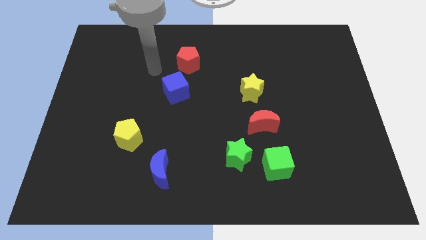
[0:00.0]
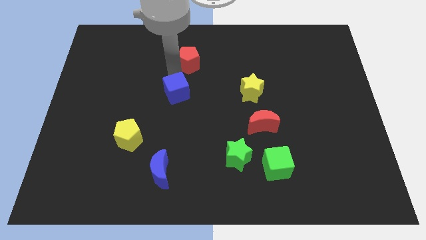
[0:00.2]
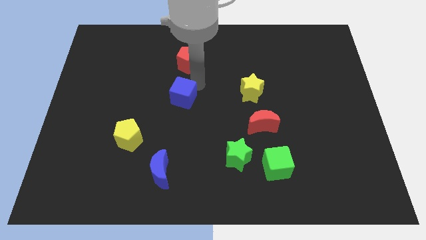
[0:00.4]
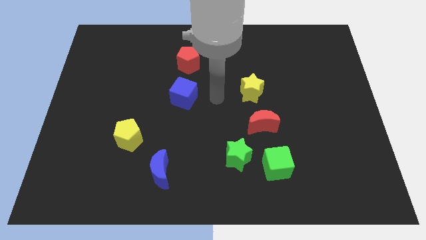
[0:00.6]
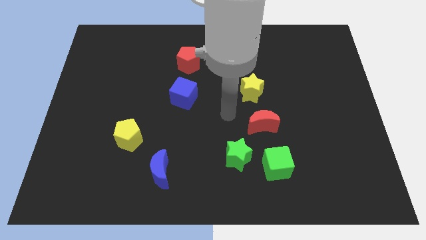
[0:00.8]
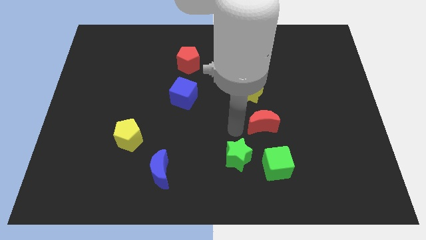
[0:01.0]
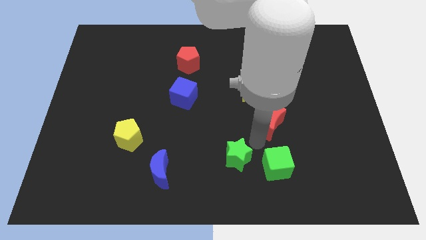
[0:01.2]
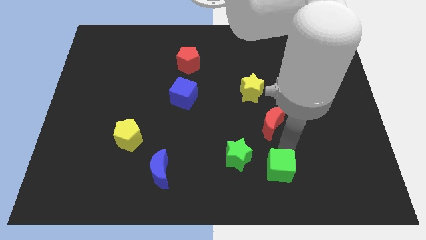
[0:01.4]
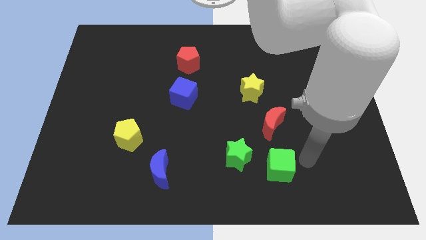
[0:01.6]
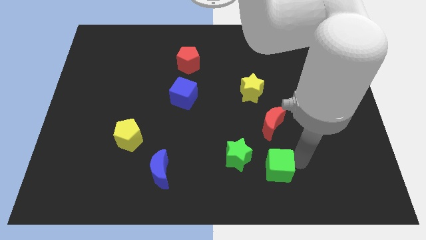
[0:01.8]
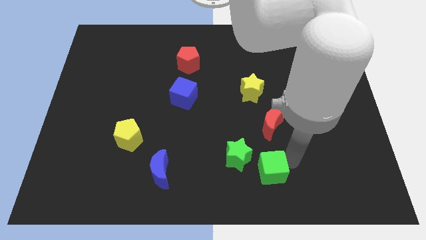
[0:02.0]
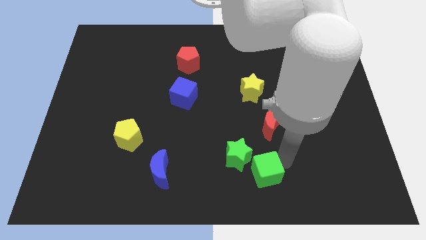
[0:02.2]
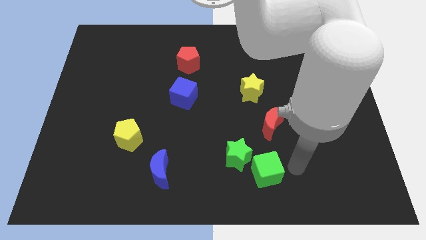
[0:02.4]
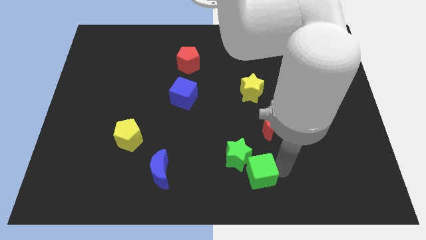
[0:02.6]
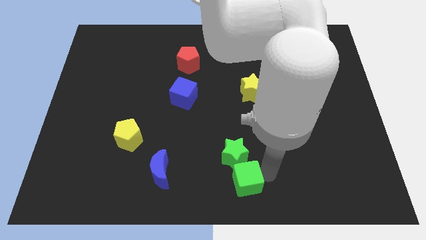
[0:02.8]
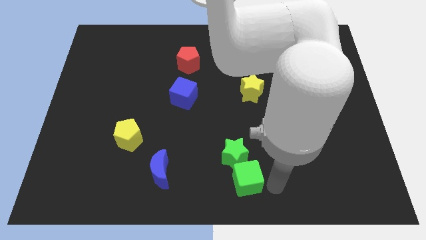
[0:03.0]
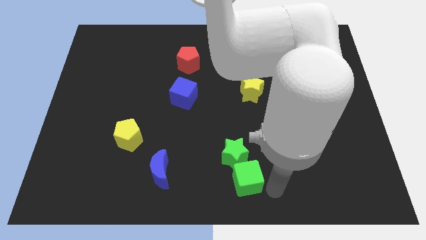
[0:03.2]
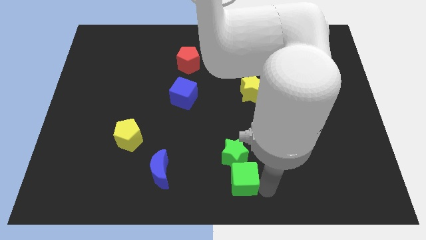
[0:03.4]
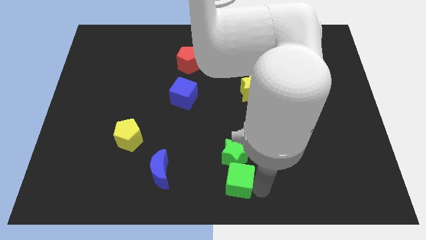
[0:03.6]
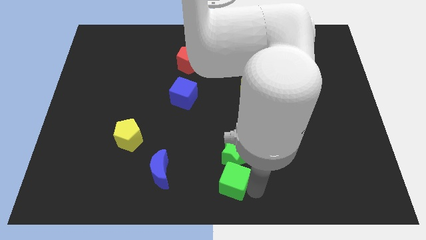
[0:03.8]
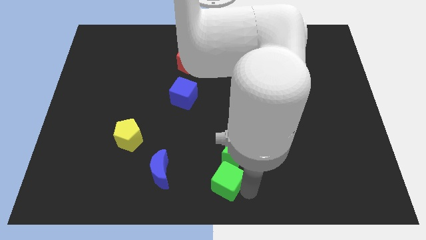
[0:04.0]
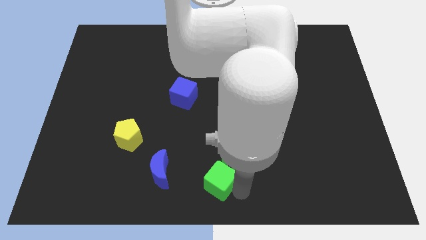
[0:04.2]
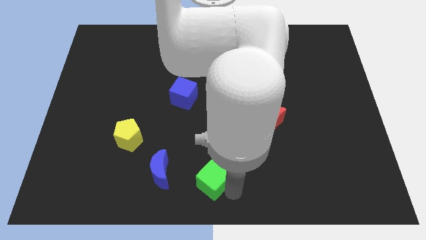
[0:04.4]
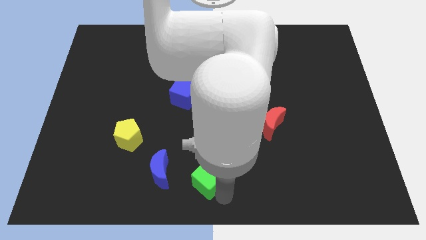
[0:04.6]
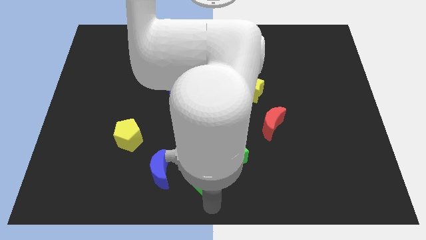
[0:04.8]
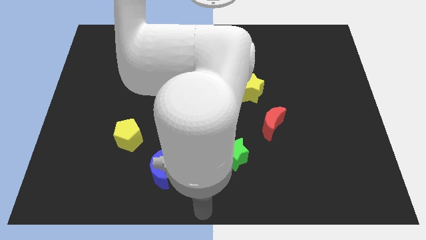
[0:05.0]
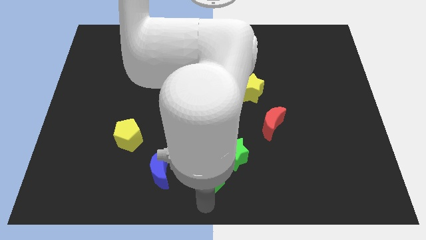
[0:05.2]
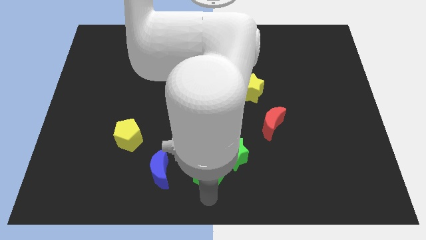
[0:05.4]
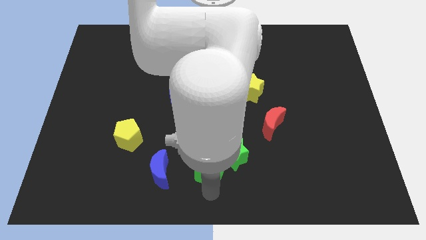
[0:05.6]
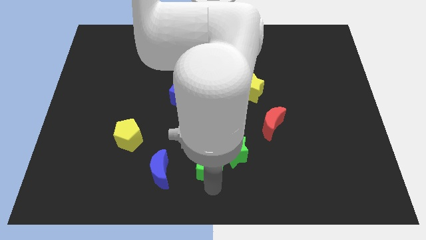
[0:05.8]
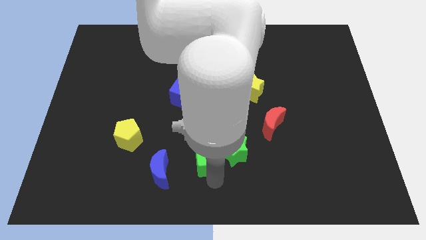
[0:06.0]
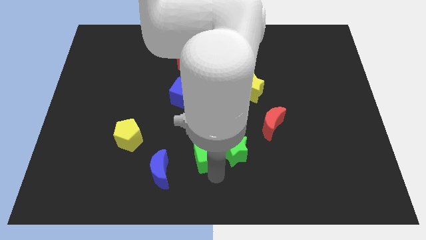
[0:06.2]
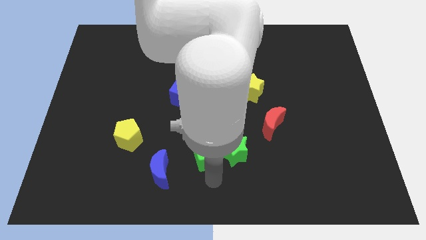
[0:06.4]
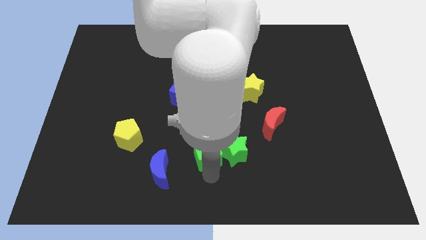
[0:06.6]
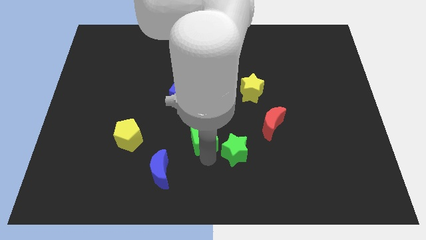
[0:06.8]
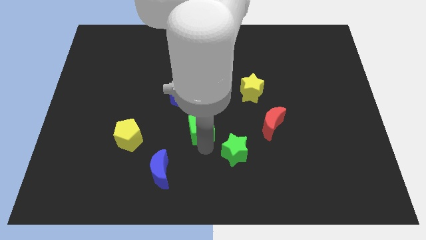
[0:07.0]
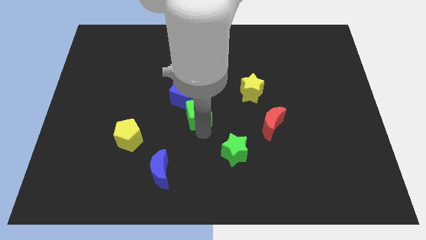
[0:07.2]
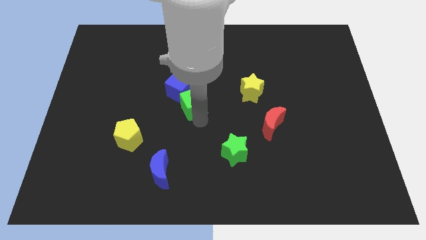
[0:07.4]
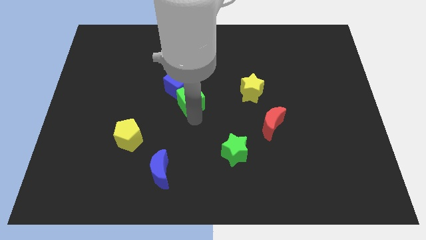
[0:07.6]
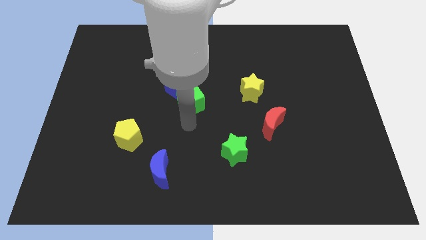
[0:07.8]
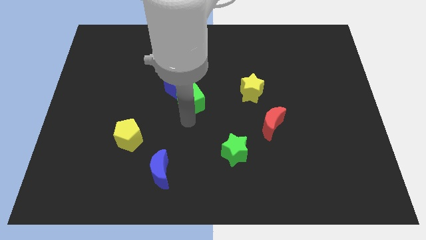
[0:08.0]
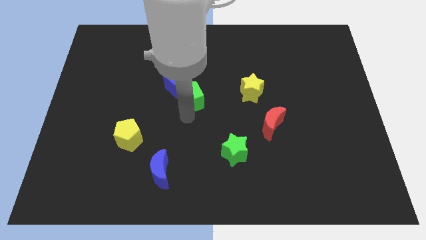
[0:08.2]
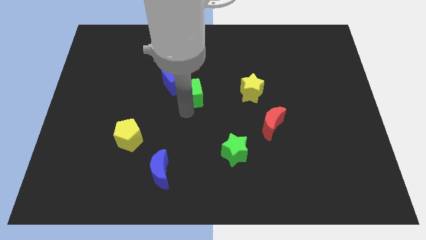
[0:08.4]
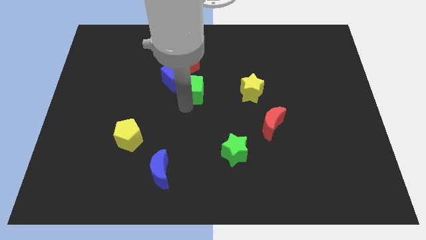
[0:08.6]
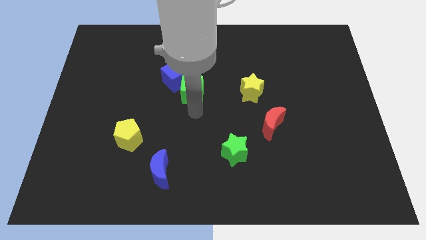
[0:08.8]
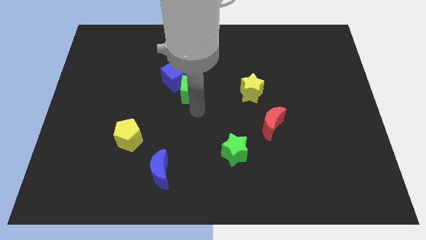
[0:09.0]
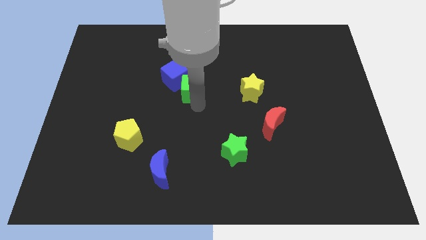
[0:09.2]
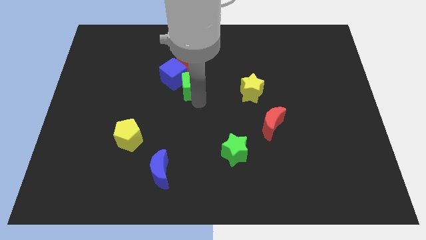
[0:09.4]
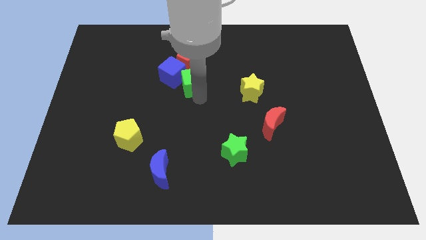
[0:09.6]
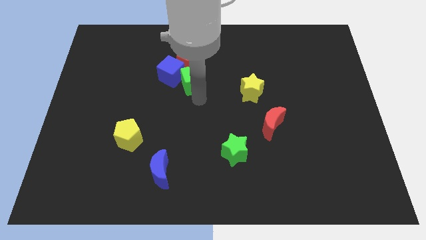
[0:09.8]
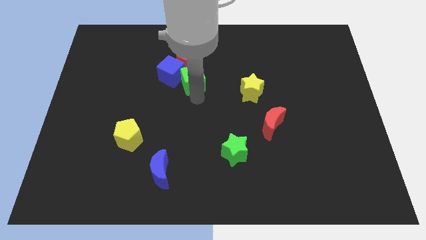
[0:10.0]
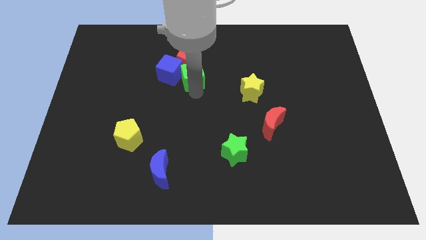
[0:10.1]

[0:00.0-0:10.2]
put the green cube close to the red pentagon

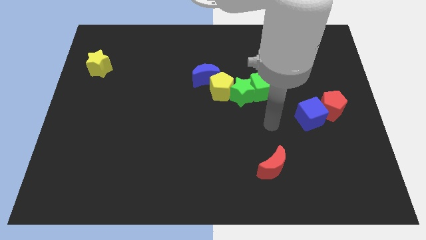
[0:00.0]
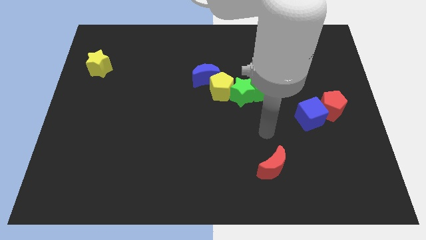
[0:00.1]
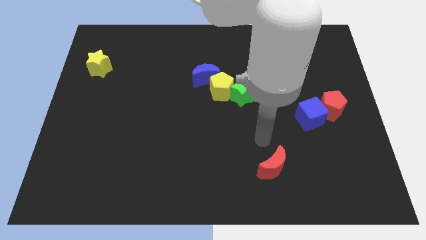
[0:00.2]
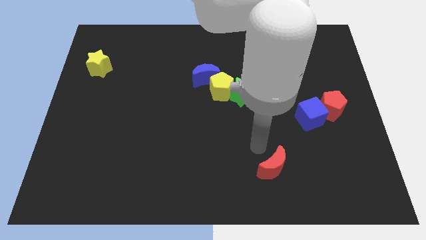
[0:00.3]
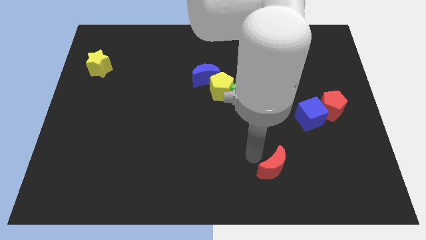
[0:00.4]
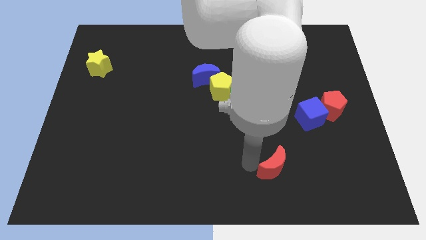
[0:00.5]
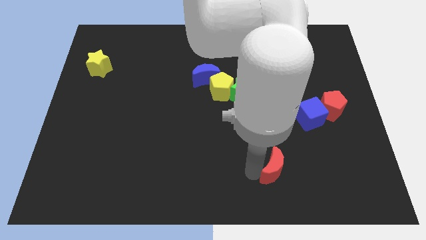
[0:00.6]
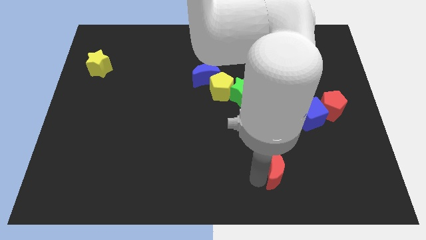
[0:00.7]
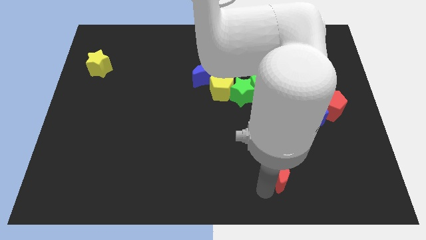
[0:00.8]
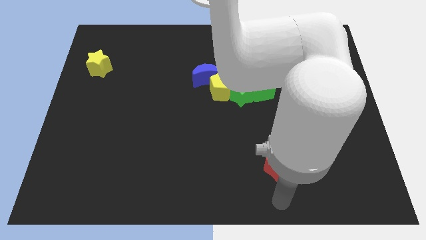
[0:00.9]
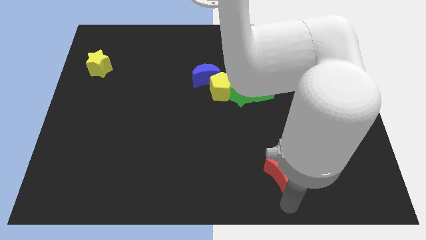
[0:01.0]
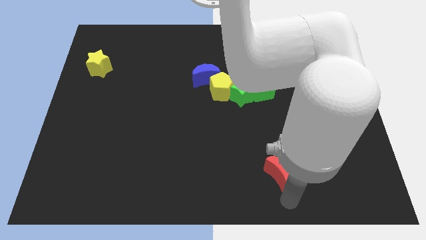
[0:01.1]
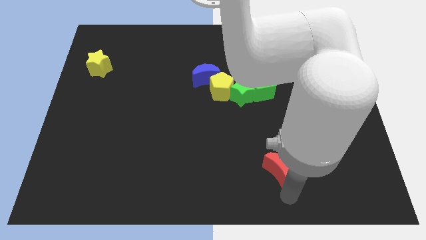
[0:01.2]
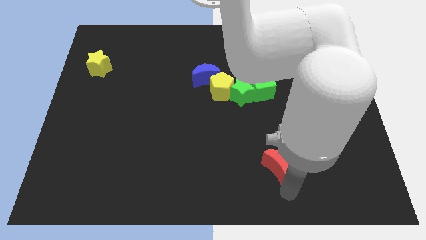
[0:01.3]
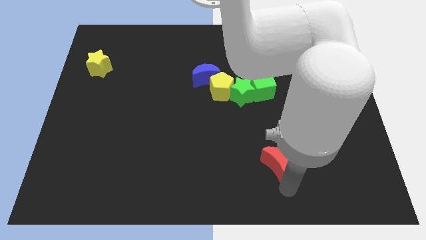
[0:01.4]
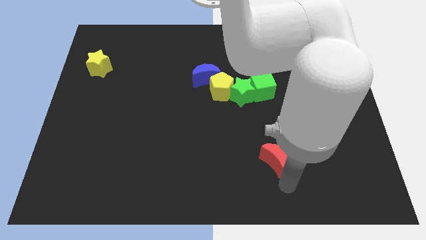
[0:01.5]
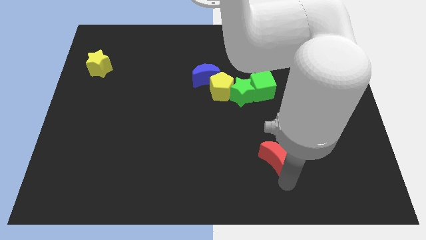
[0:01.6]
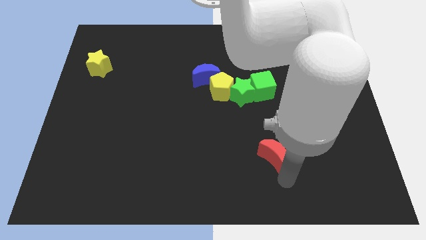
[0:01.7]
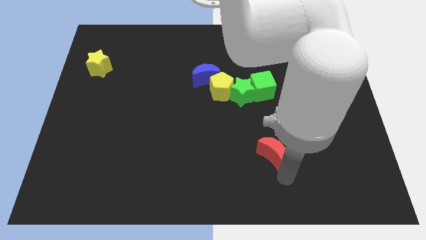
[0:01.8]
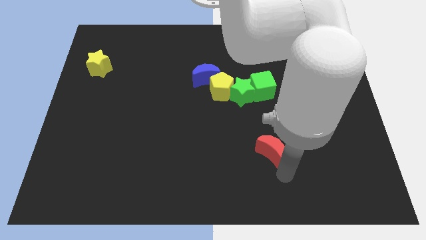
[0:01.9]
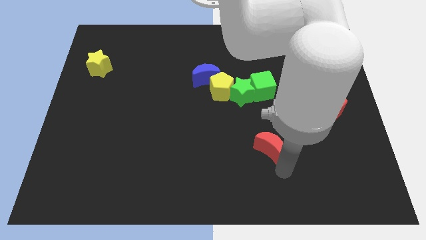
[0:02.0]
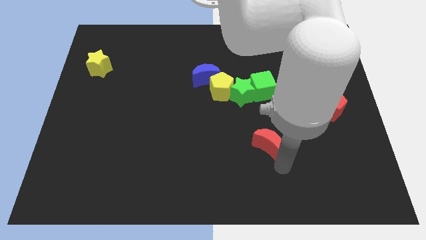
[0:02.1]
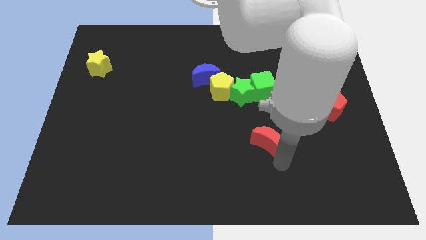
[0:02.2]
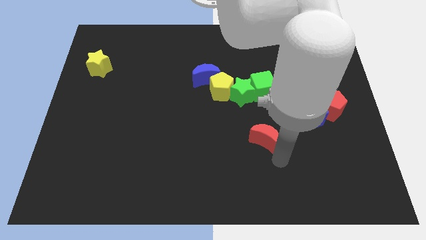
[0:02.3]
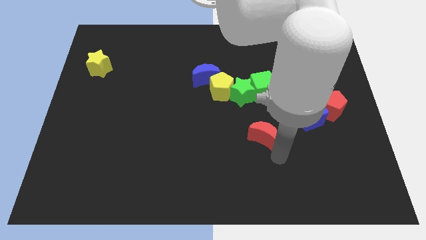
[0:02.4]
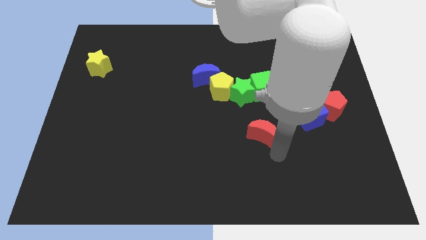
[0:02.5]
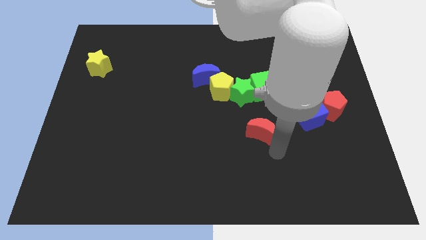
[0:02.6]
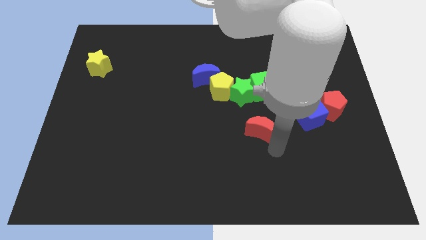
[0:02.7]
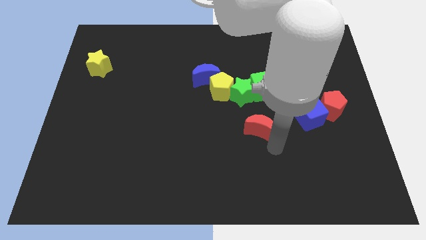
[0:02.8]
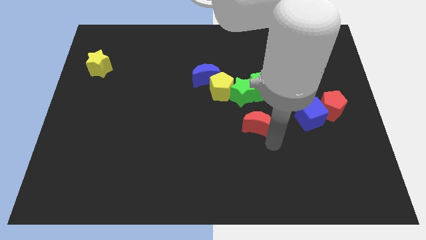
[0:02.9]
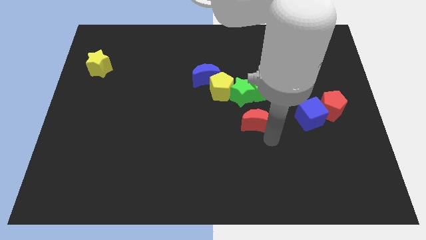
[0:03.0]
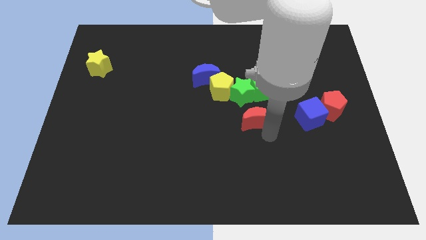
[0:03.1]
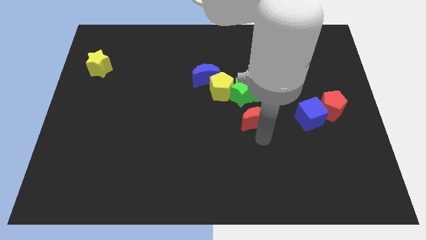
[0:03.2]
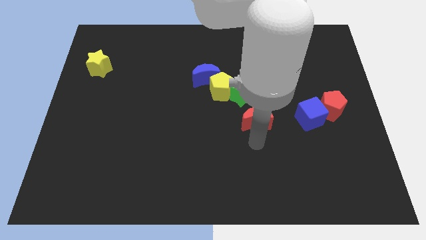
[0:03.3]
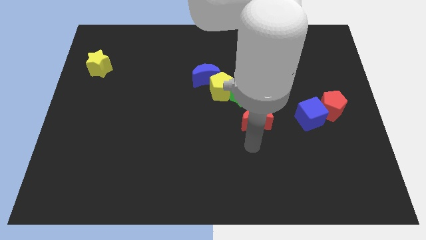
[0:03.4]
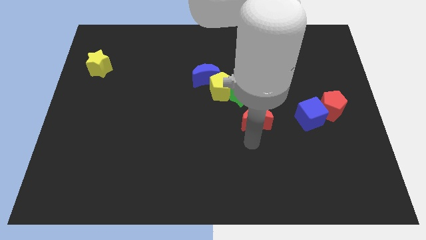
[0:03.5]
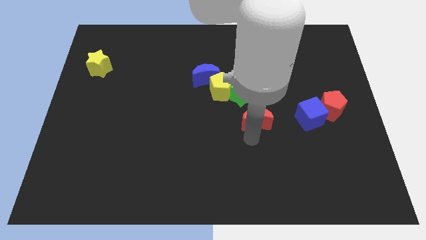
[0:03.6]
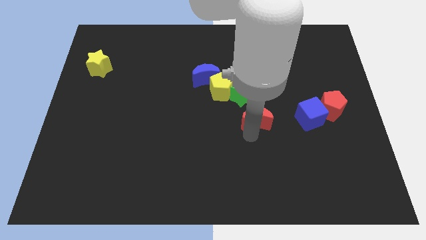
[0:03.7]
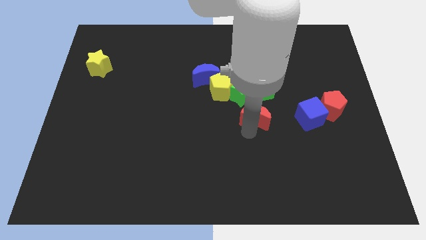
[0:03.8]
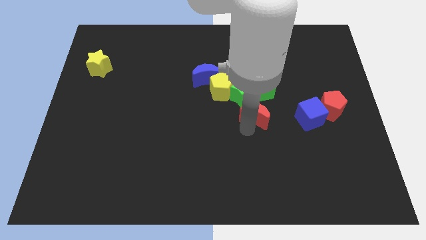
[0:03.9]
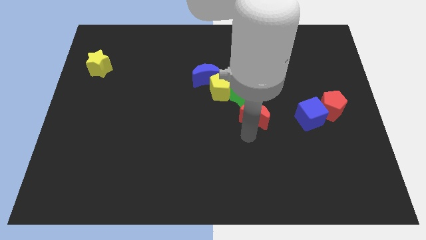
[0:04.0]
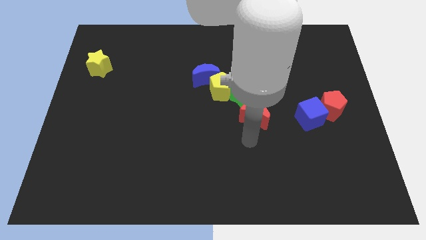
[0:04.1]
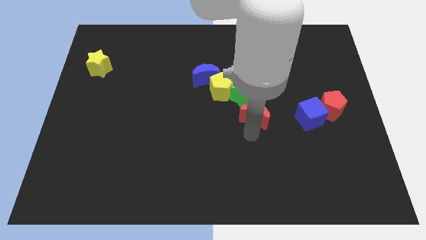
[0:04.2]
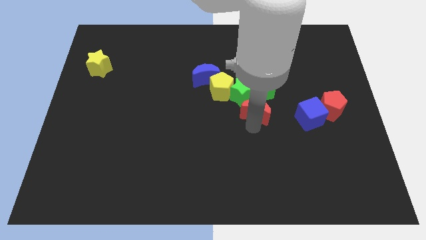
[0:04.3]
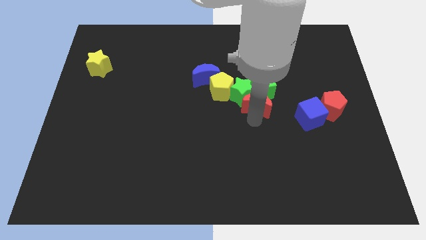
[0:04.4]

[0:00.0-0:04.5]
push the red moon next to the green cube
